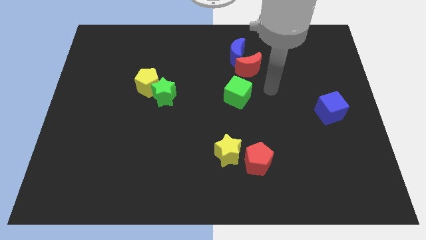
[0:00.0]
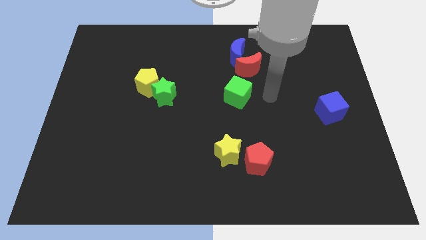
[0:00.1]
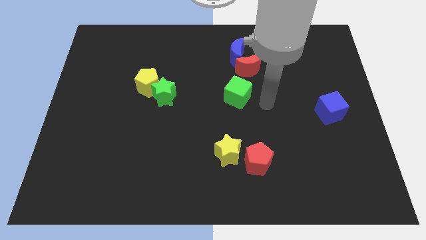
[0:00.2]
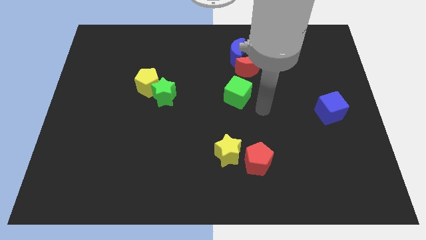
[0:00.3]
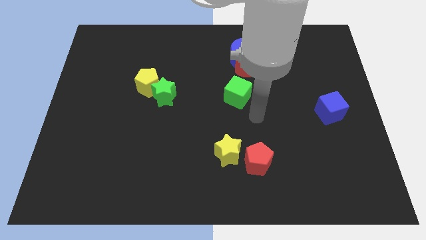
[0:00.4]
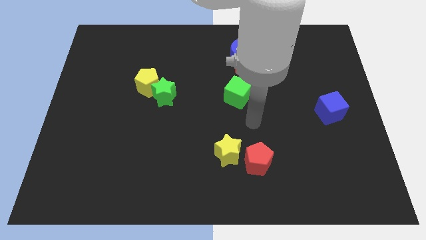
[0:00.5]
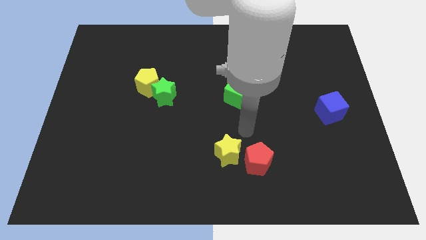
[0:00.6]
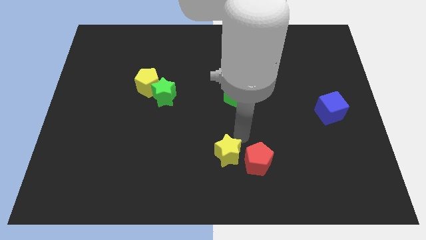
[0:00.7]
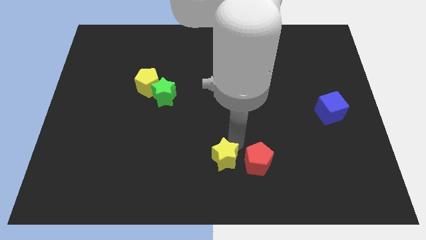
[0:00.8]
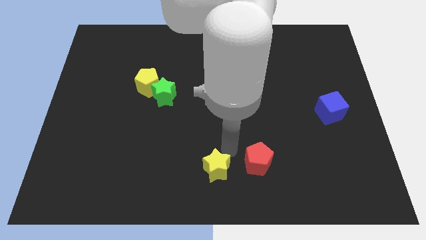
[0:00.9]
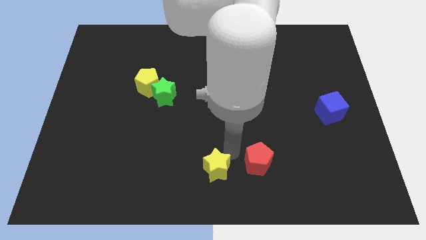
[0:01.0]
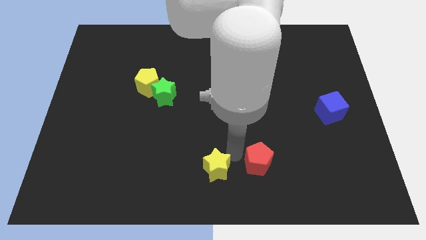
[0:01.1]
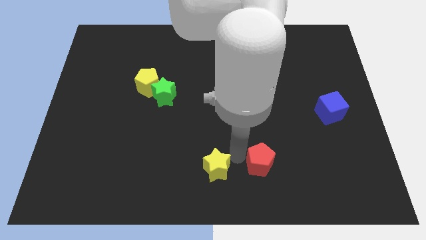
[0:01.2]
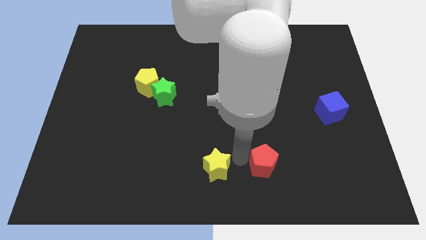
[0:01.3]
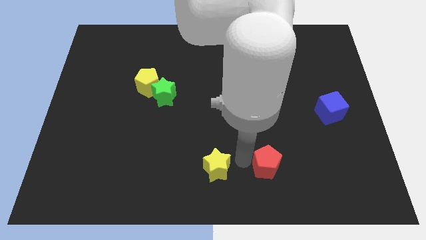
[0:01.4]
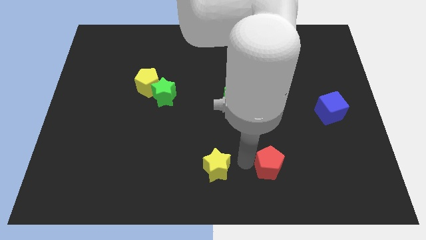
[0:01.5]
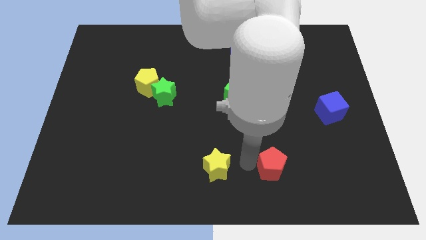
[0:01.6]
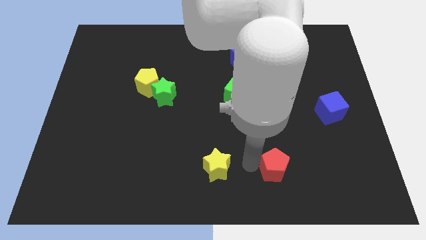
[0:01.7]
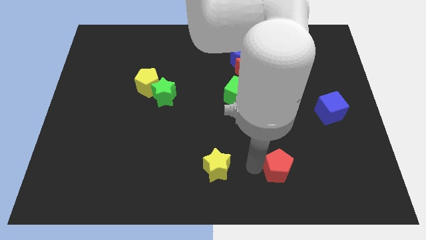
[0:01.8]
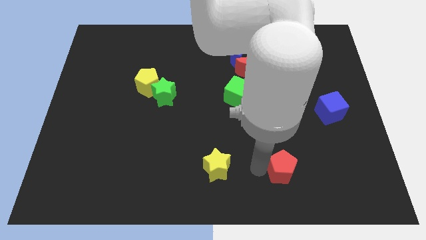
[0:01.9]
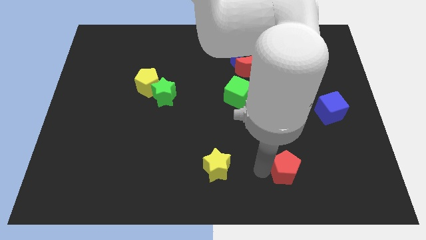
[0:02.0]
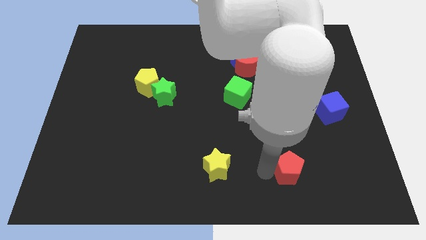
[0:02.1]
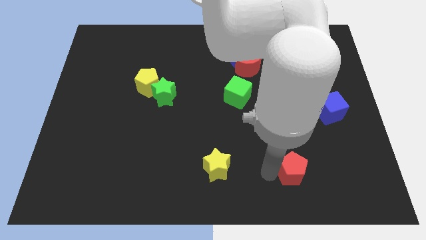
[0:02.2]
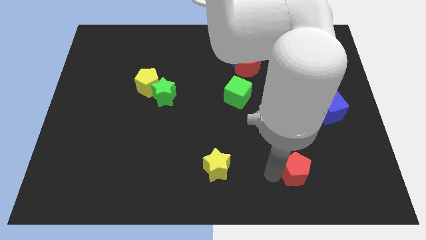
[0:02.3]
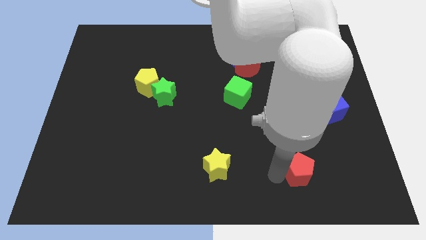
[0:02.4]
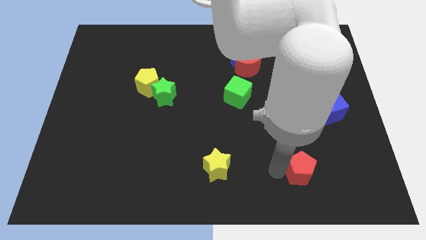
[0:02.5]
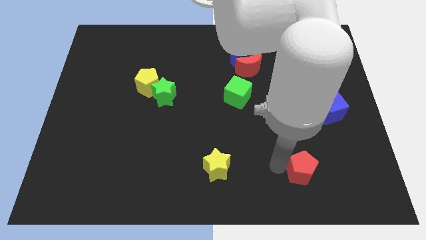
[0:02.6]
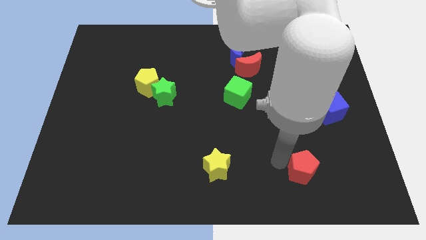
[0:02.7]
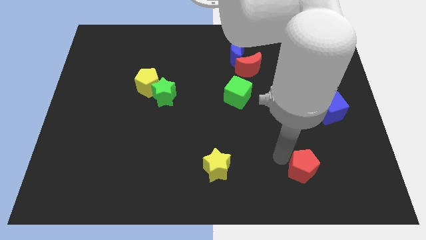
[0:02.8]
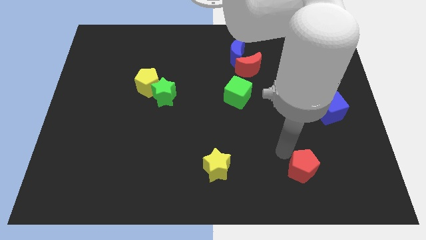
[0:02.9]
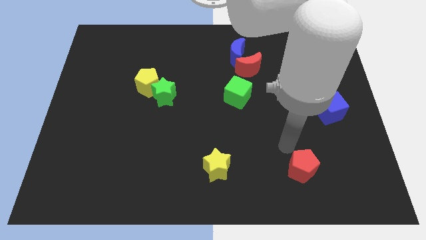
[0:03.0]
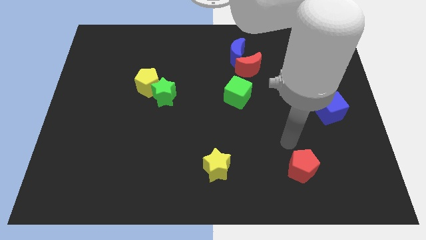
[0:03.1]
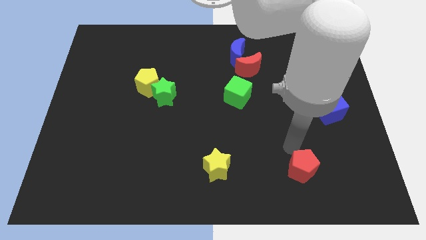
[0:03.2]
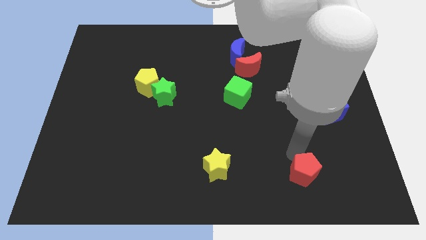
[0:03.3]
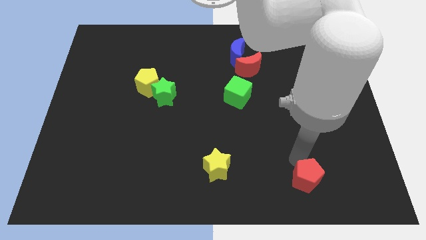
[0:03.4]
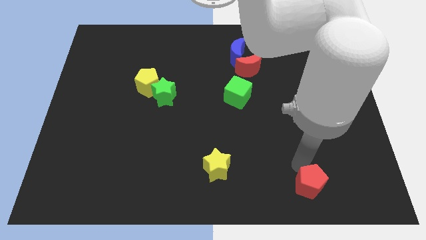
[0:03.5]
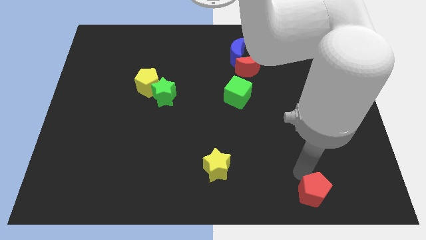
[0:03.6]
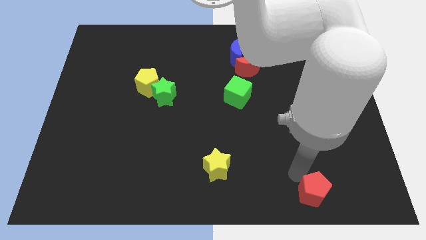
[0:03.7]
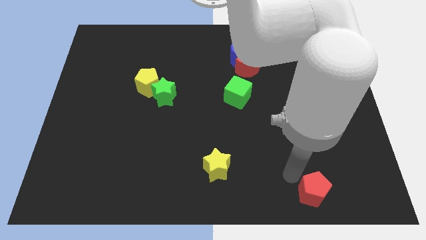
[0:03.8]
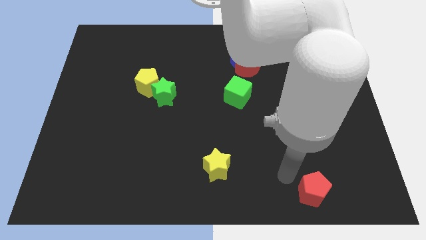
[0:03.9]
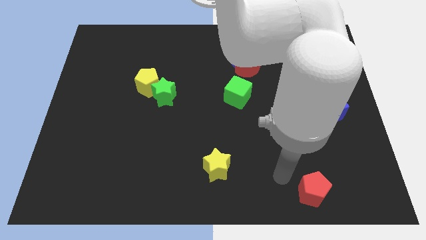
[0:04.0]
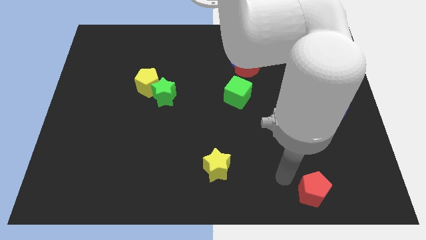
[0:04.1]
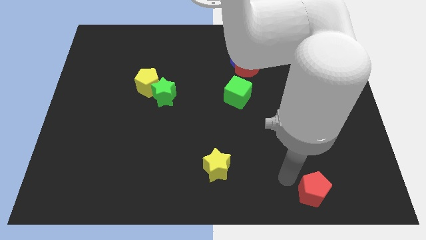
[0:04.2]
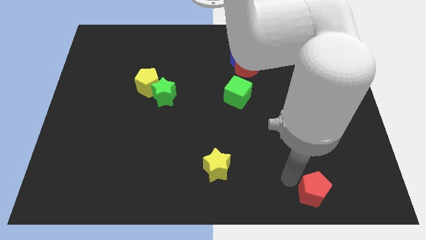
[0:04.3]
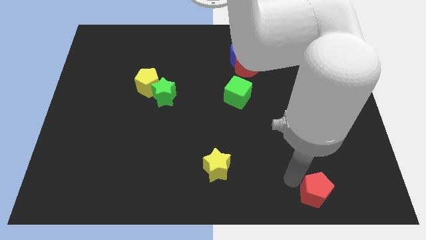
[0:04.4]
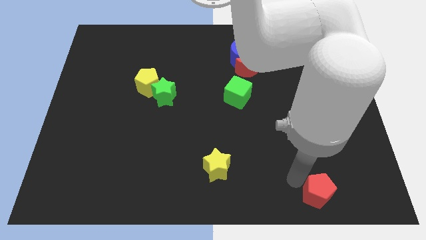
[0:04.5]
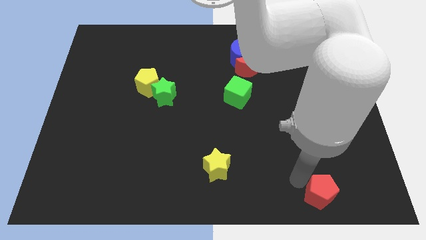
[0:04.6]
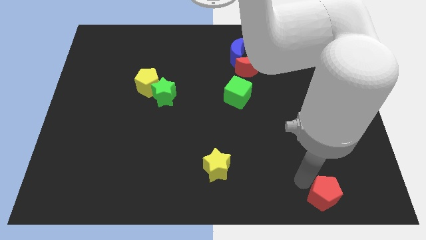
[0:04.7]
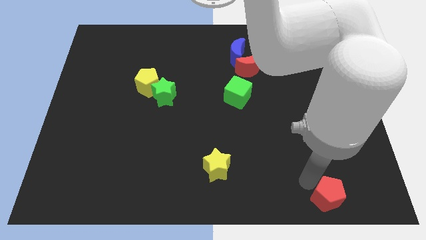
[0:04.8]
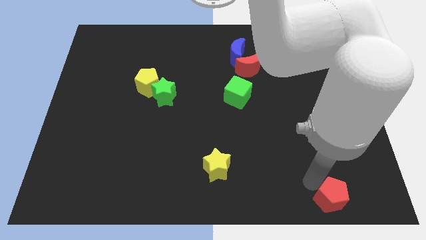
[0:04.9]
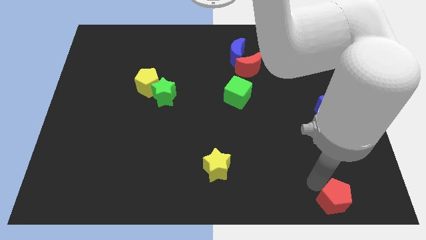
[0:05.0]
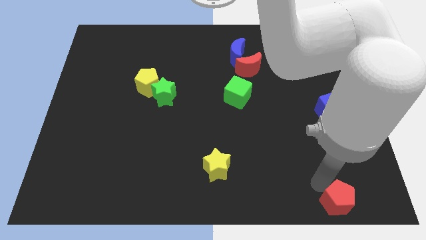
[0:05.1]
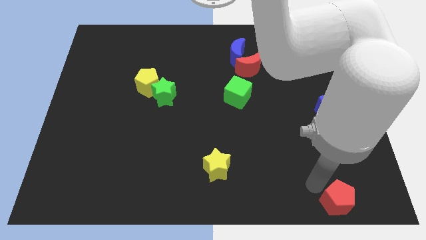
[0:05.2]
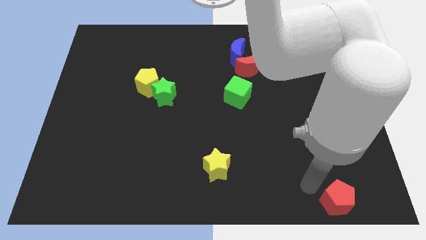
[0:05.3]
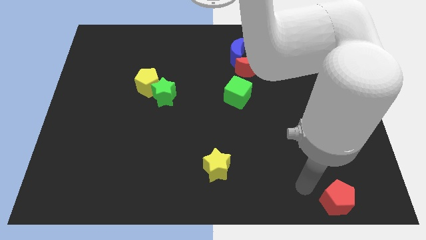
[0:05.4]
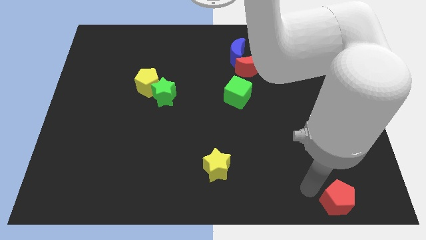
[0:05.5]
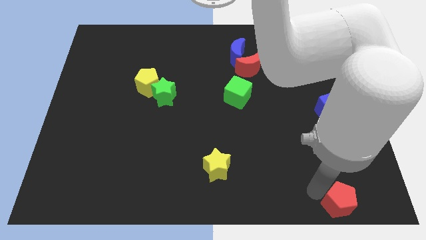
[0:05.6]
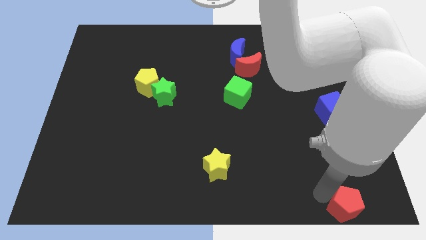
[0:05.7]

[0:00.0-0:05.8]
put the red pentagon to the bottom right of the board
